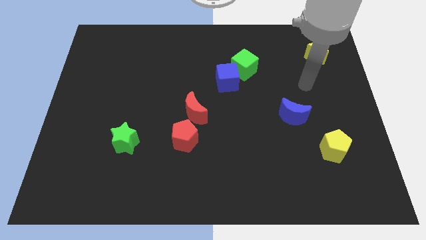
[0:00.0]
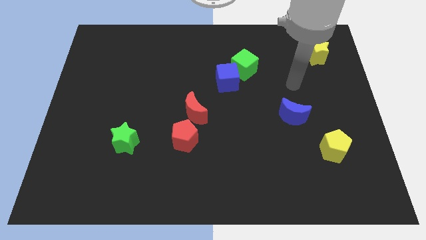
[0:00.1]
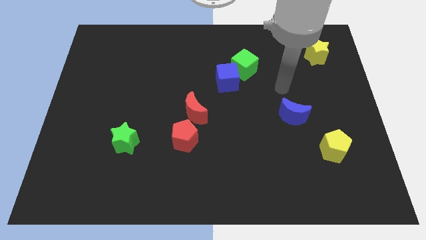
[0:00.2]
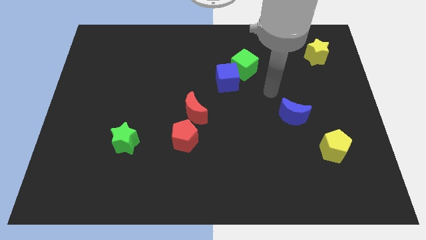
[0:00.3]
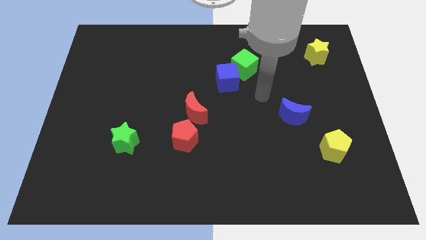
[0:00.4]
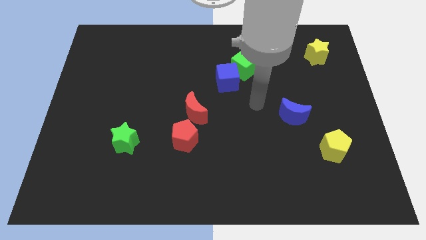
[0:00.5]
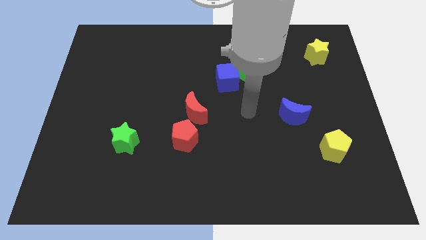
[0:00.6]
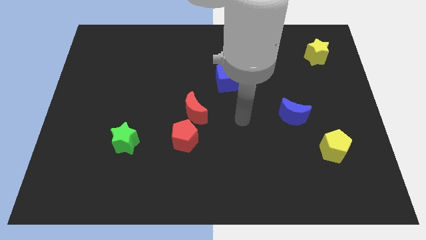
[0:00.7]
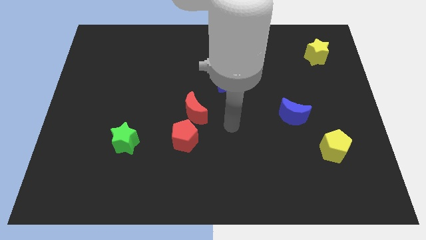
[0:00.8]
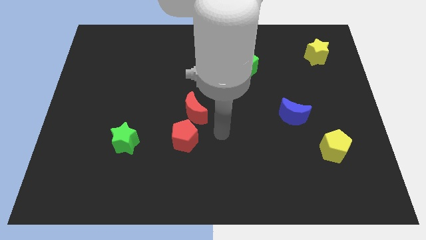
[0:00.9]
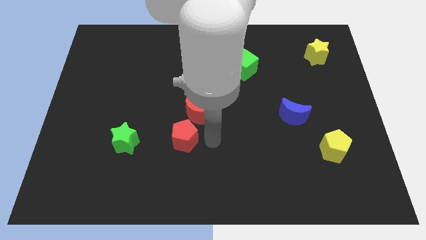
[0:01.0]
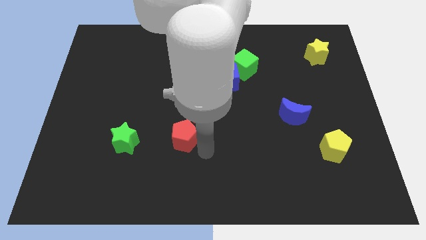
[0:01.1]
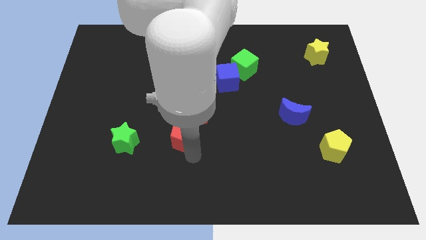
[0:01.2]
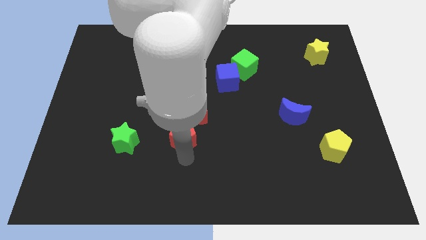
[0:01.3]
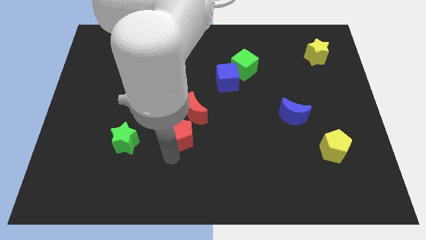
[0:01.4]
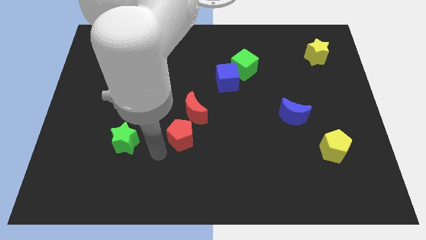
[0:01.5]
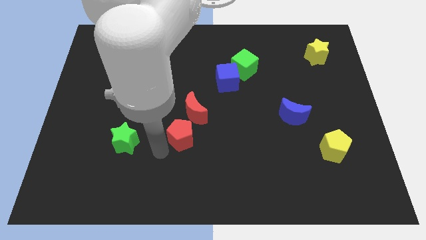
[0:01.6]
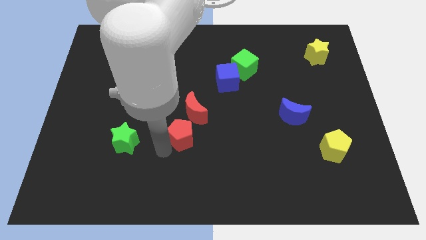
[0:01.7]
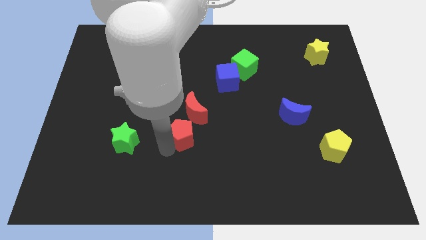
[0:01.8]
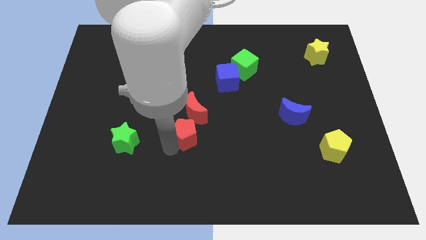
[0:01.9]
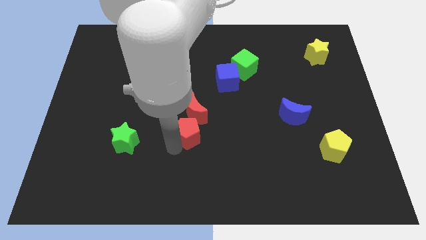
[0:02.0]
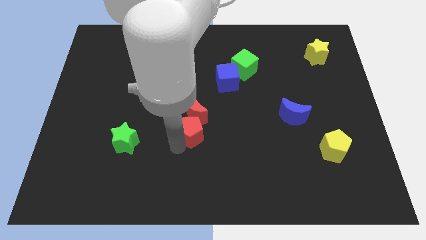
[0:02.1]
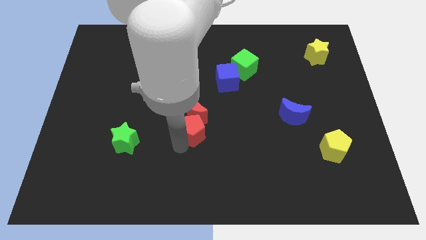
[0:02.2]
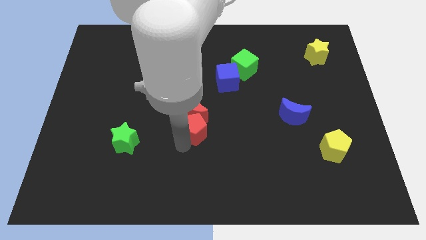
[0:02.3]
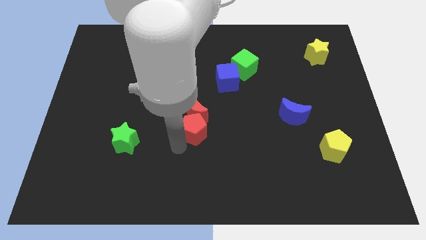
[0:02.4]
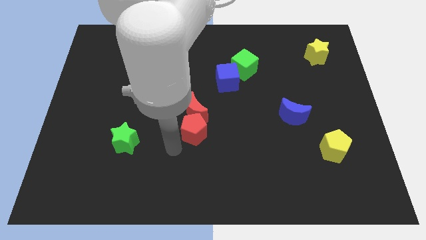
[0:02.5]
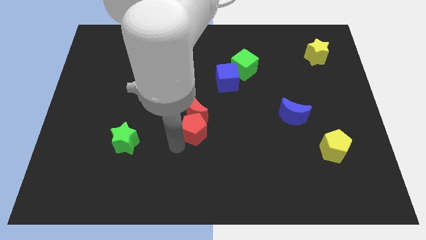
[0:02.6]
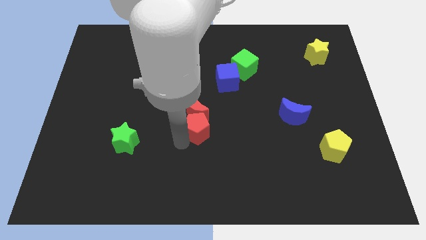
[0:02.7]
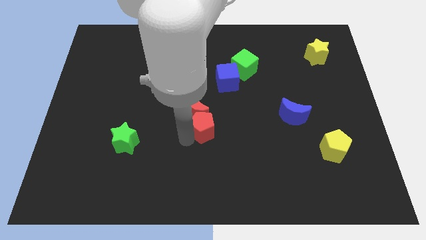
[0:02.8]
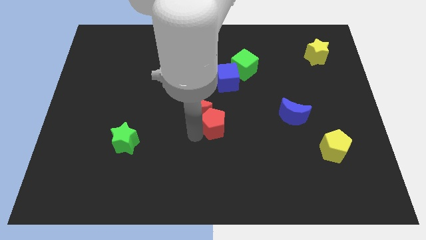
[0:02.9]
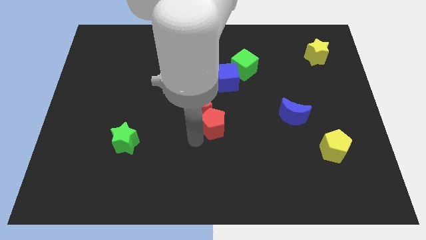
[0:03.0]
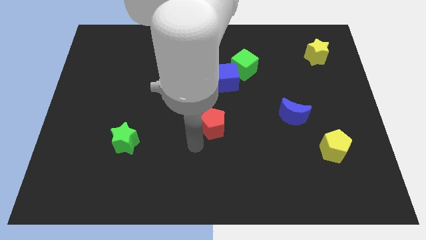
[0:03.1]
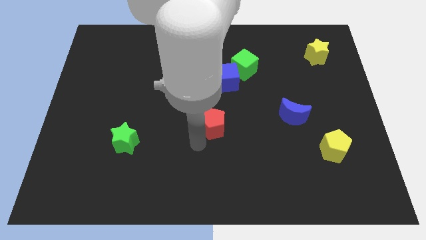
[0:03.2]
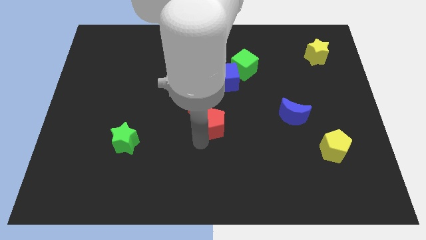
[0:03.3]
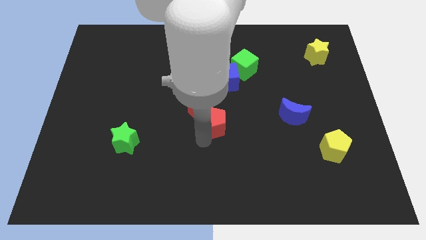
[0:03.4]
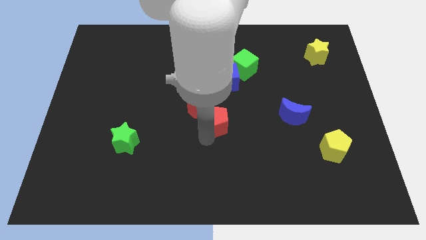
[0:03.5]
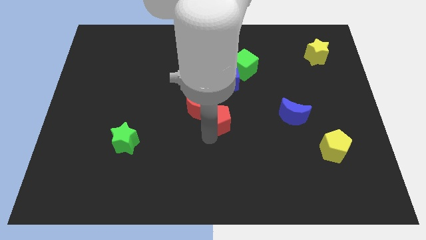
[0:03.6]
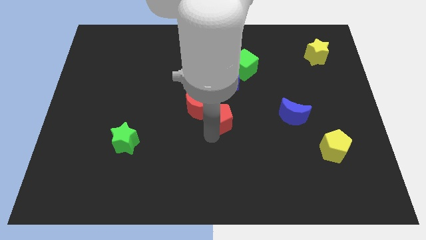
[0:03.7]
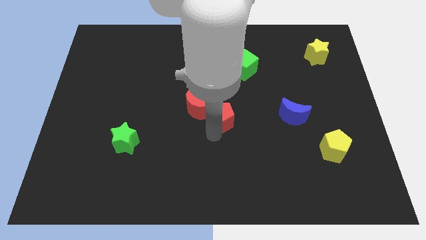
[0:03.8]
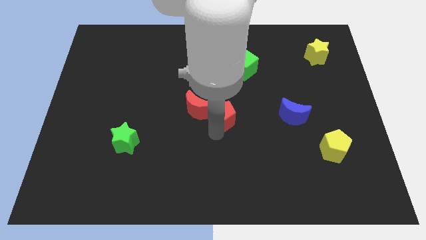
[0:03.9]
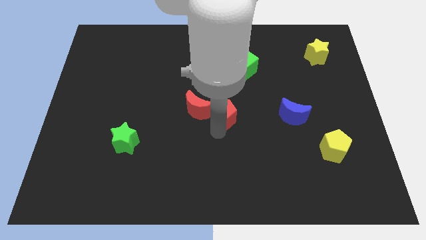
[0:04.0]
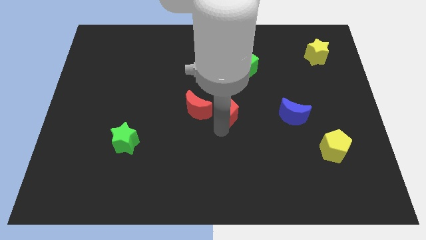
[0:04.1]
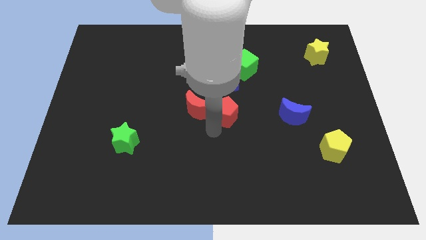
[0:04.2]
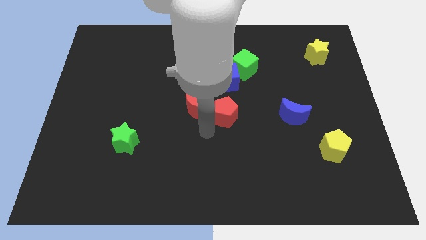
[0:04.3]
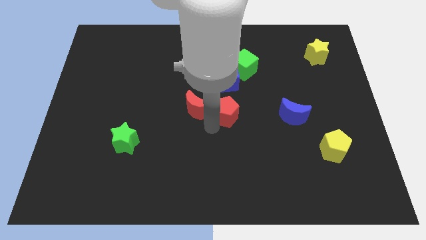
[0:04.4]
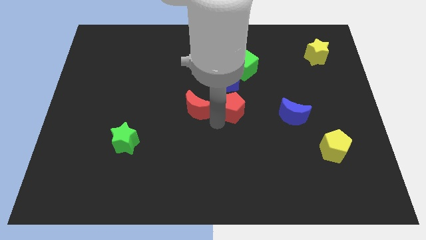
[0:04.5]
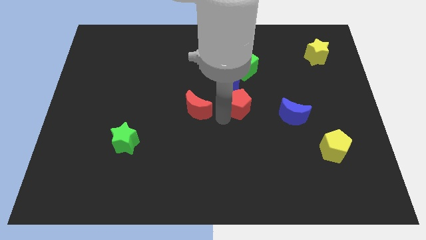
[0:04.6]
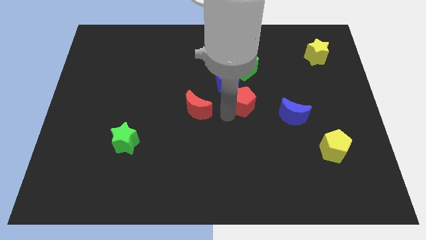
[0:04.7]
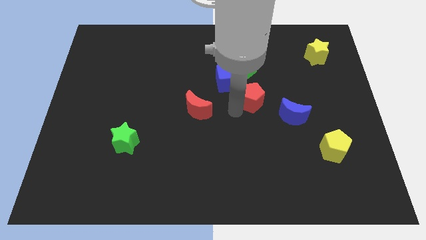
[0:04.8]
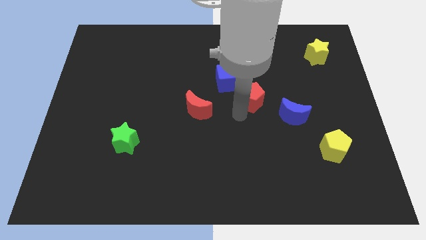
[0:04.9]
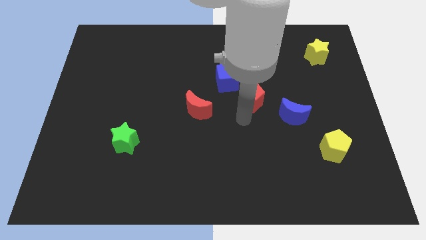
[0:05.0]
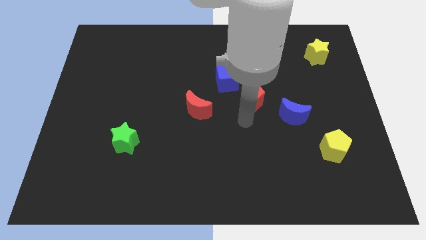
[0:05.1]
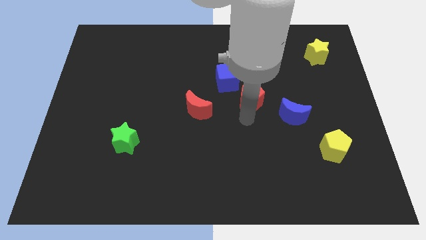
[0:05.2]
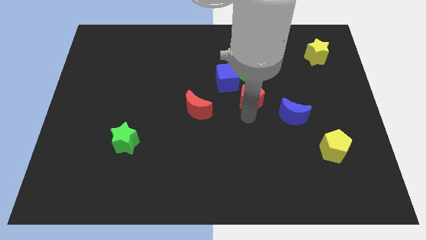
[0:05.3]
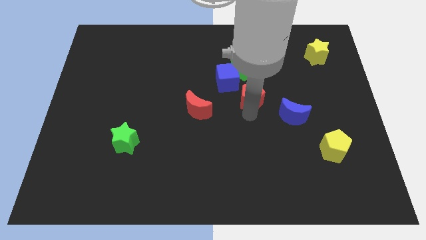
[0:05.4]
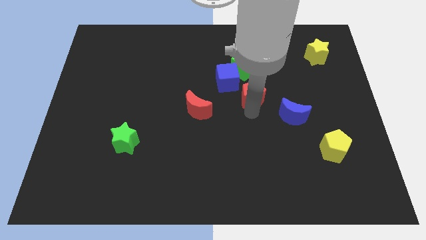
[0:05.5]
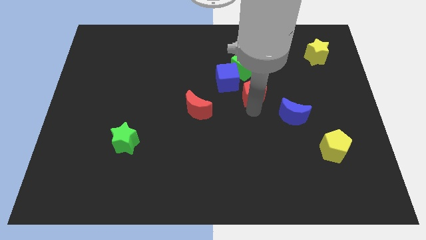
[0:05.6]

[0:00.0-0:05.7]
move the red pentagon diagonally up and to the right

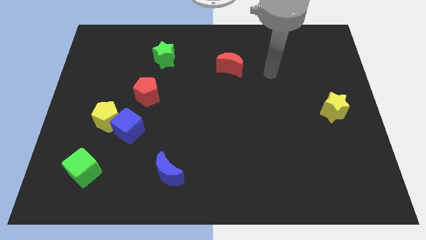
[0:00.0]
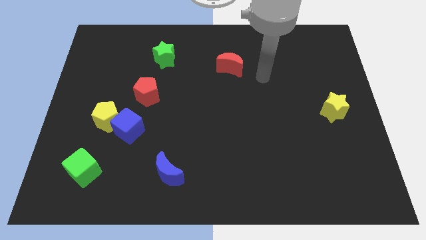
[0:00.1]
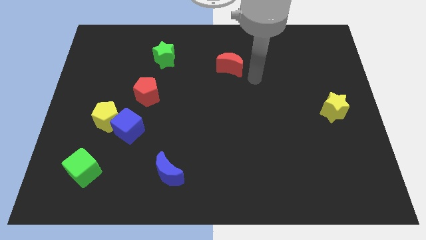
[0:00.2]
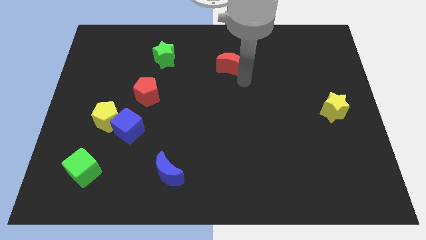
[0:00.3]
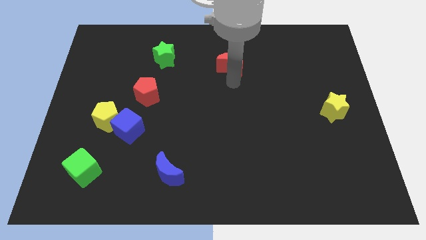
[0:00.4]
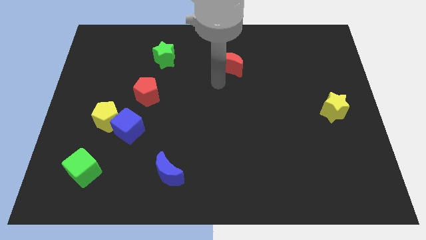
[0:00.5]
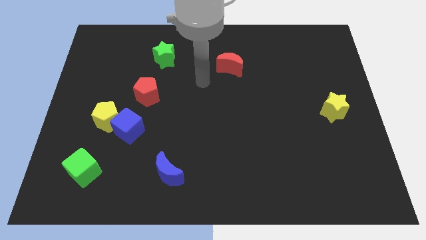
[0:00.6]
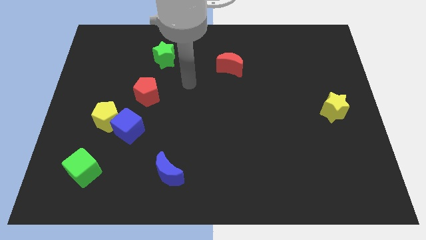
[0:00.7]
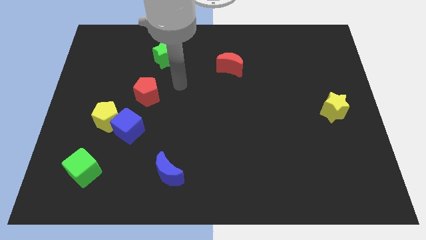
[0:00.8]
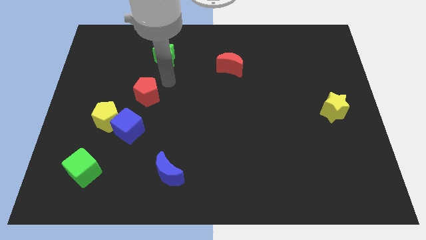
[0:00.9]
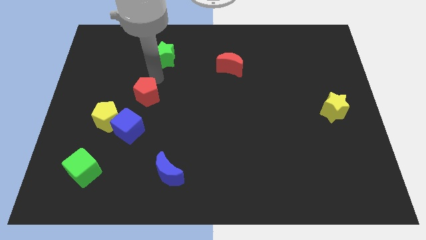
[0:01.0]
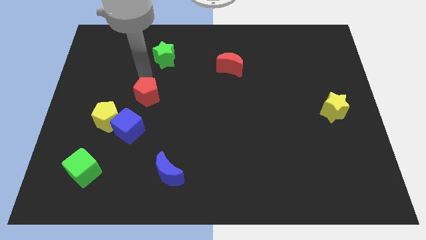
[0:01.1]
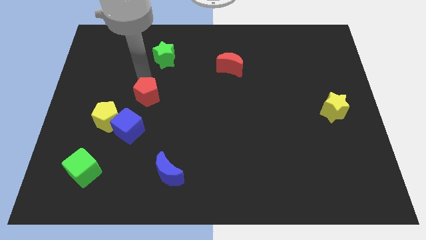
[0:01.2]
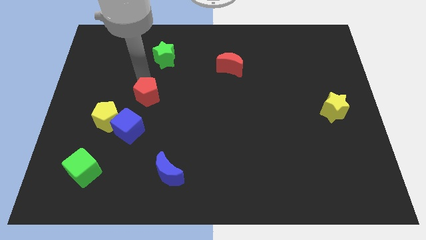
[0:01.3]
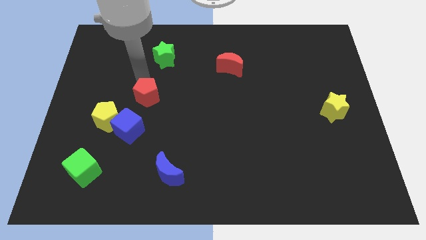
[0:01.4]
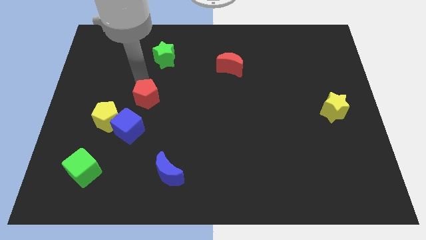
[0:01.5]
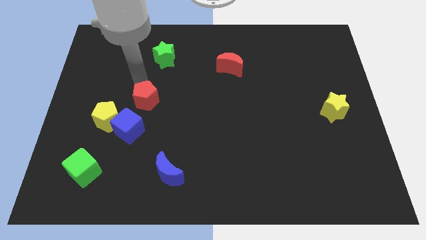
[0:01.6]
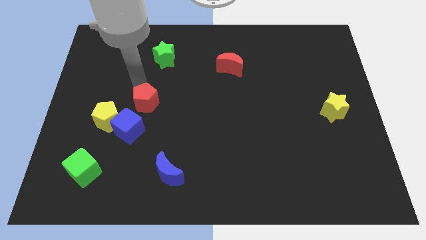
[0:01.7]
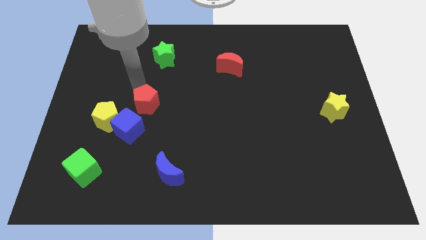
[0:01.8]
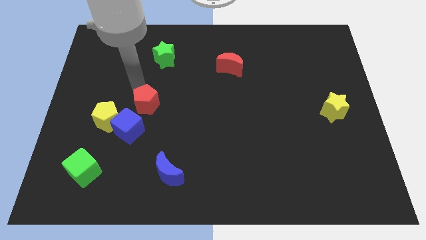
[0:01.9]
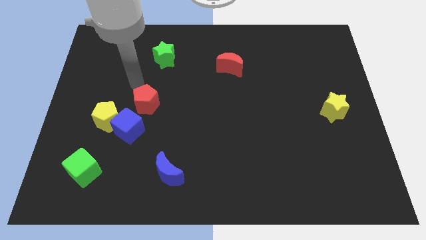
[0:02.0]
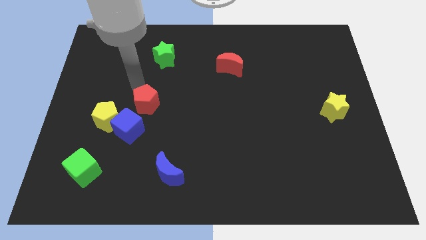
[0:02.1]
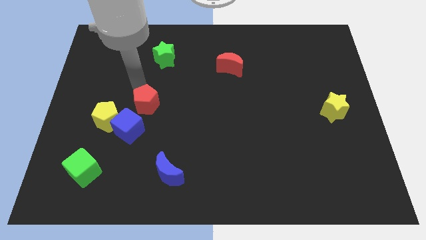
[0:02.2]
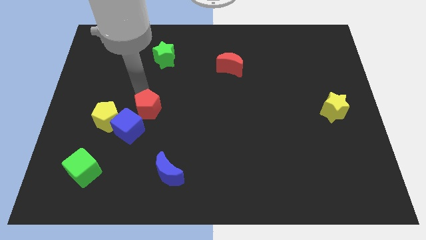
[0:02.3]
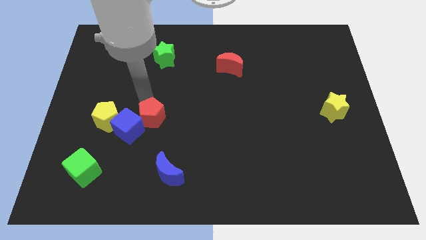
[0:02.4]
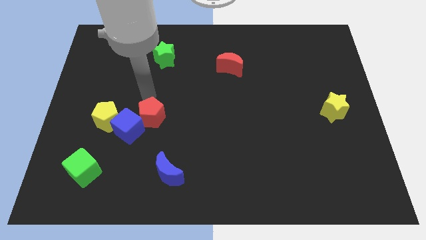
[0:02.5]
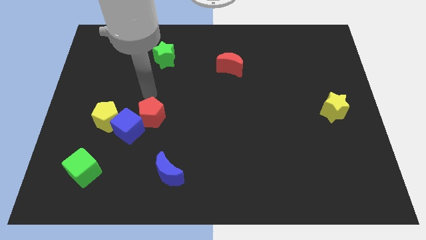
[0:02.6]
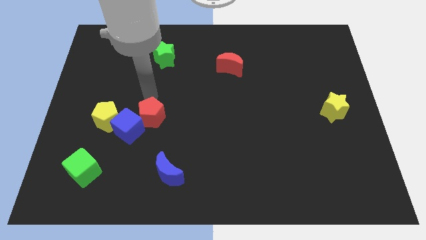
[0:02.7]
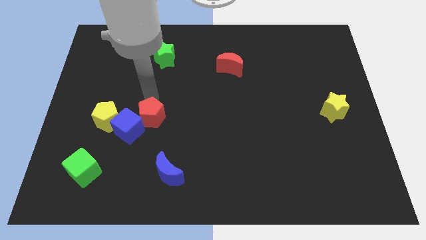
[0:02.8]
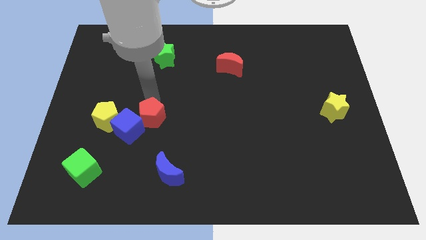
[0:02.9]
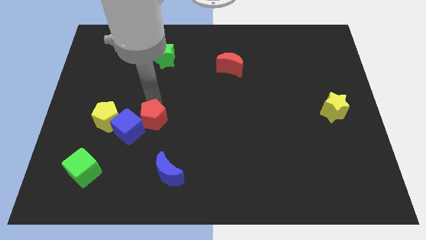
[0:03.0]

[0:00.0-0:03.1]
push the red pentagon a bit downwards
